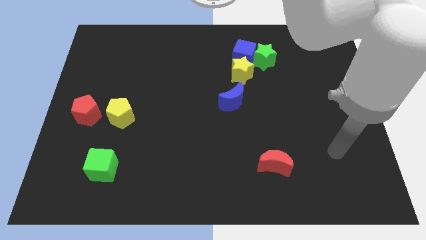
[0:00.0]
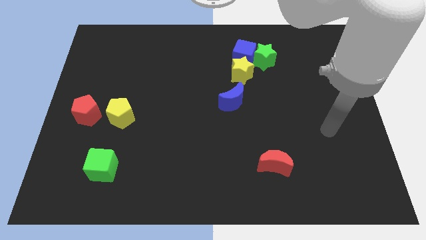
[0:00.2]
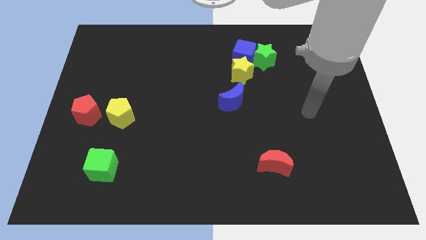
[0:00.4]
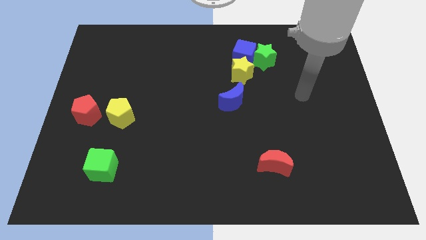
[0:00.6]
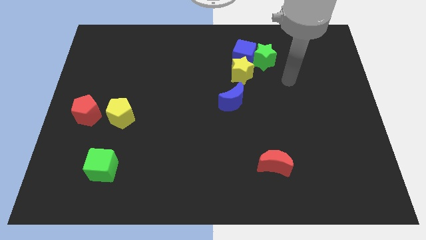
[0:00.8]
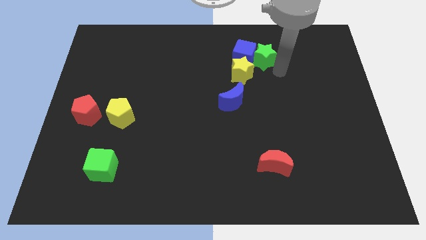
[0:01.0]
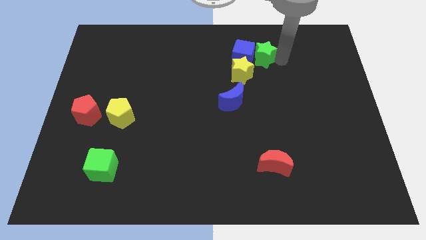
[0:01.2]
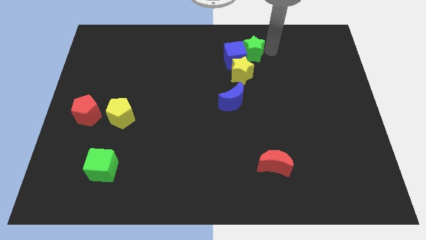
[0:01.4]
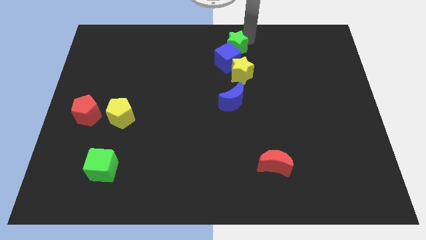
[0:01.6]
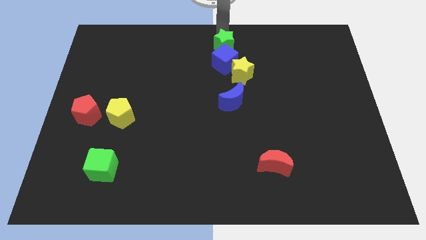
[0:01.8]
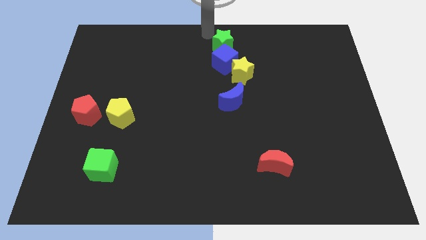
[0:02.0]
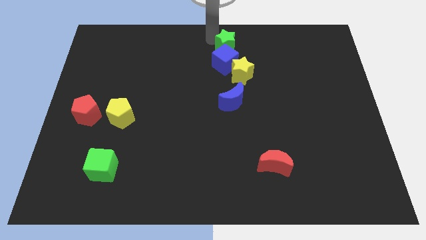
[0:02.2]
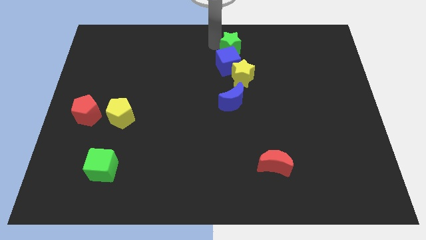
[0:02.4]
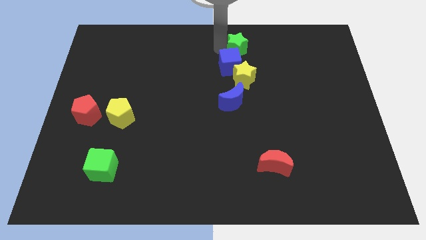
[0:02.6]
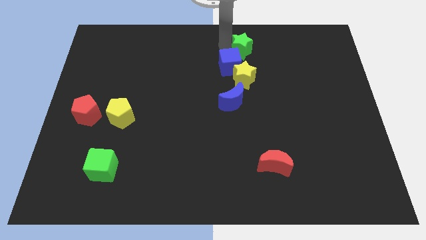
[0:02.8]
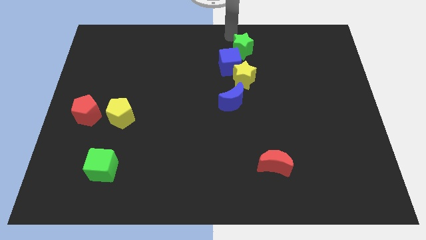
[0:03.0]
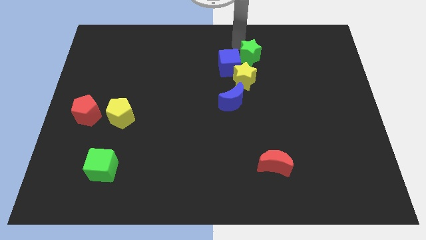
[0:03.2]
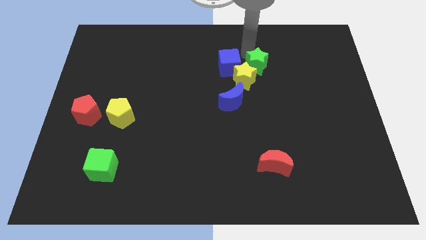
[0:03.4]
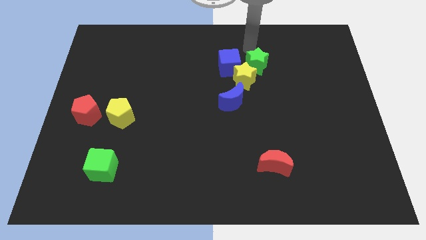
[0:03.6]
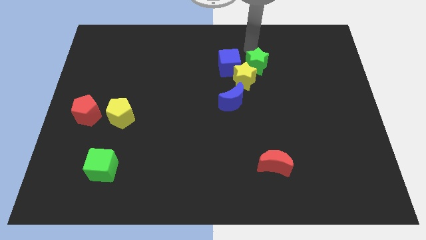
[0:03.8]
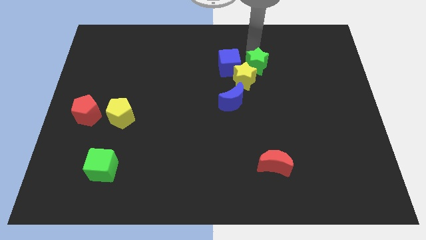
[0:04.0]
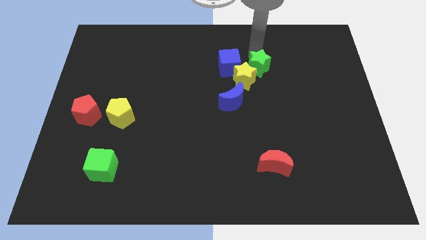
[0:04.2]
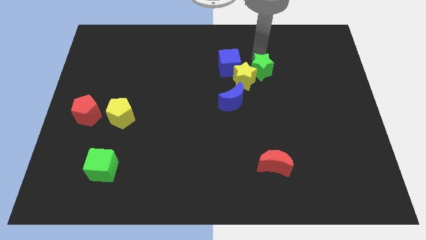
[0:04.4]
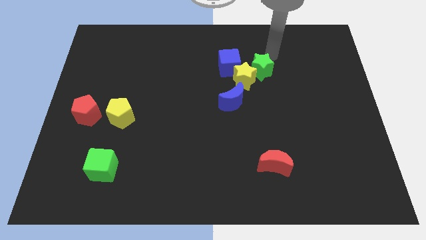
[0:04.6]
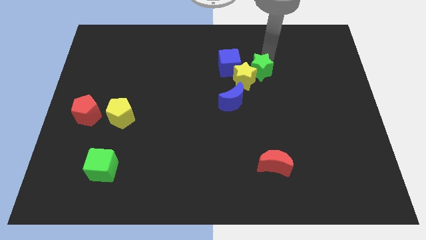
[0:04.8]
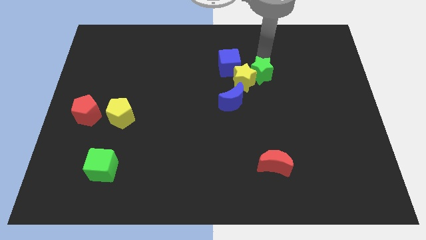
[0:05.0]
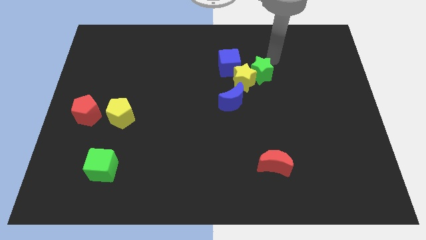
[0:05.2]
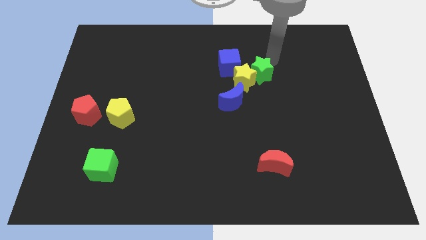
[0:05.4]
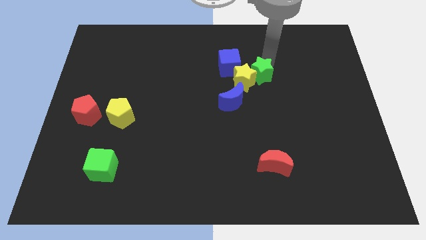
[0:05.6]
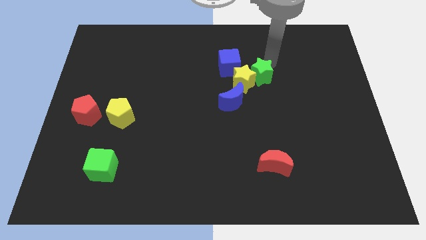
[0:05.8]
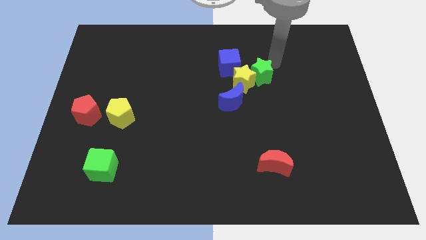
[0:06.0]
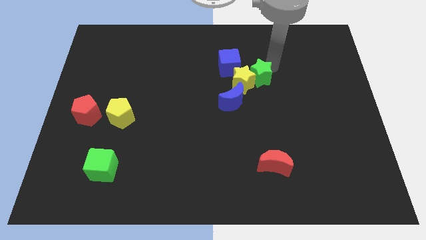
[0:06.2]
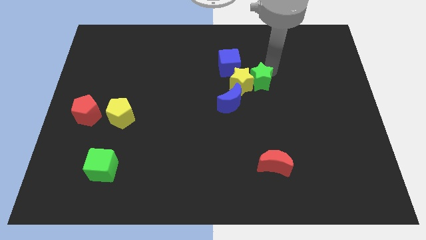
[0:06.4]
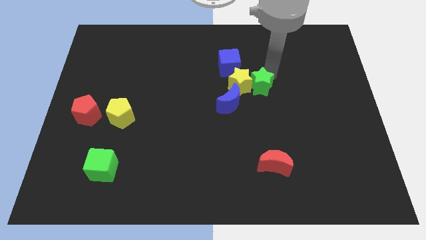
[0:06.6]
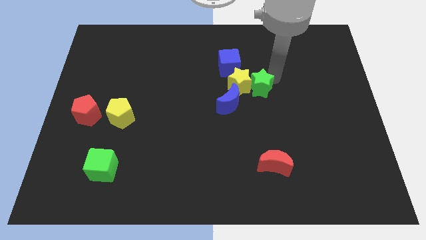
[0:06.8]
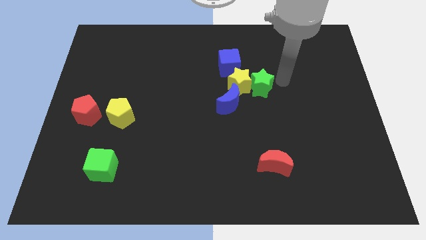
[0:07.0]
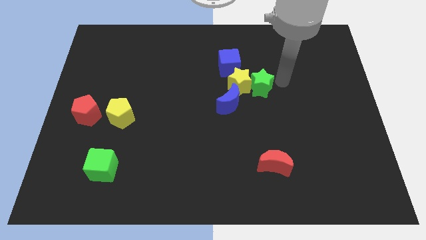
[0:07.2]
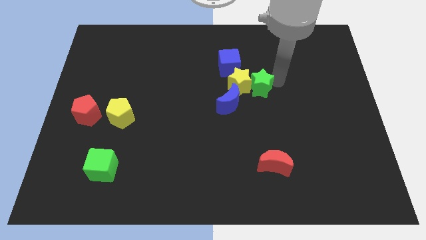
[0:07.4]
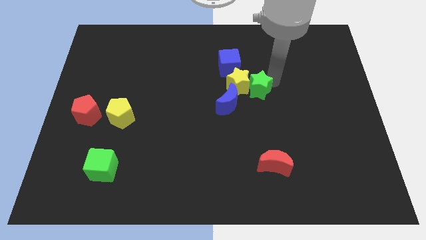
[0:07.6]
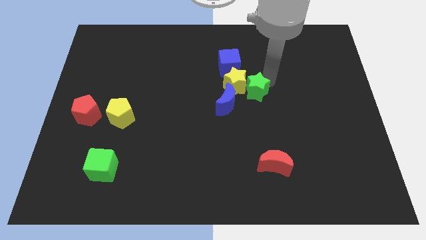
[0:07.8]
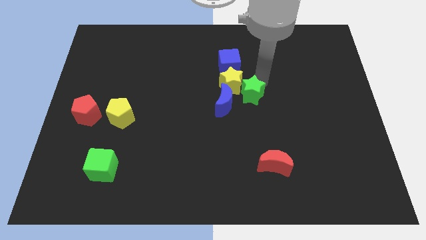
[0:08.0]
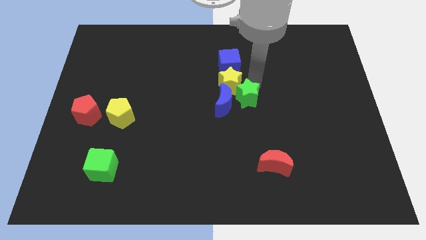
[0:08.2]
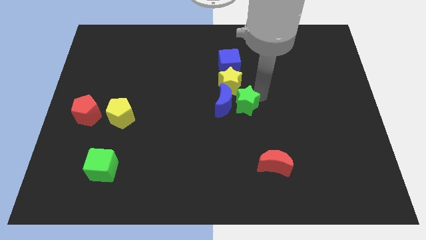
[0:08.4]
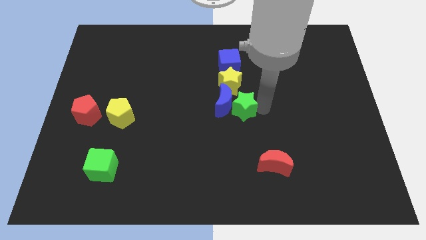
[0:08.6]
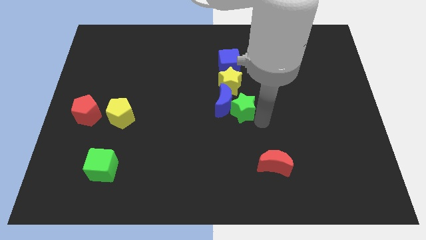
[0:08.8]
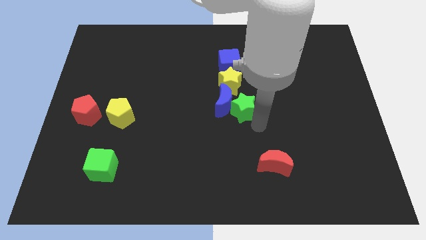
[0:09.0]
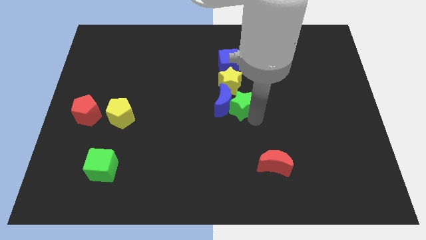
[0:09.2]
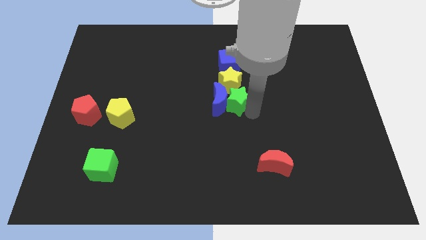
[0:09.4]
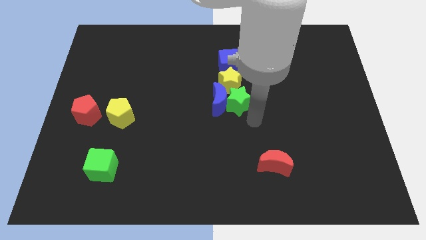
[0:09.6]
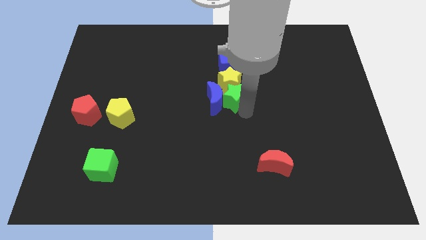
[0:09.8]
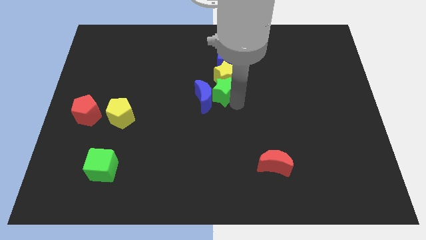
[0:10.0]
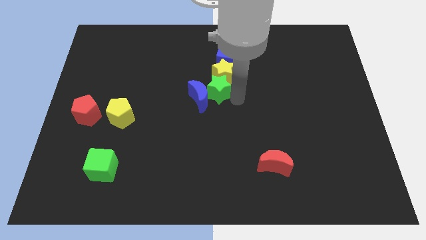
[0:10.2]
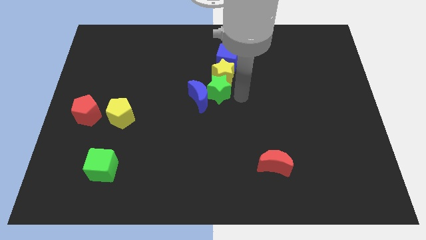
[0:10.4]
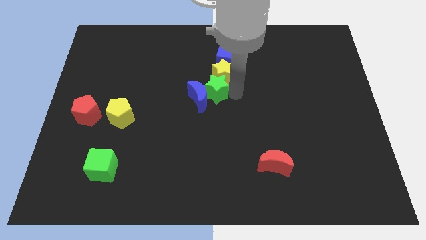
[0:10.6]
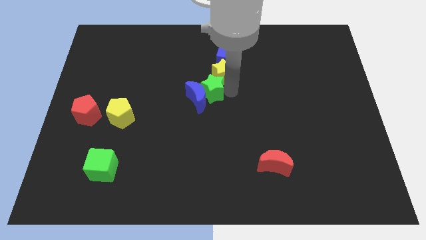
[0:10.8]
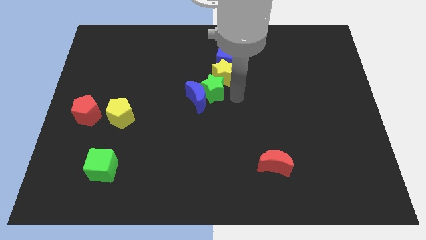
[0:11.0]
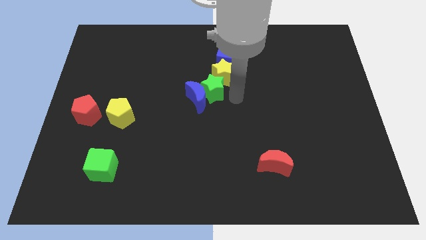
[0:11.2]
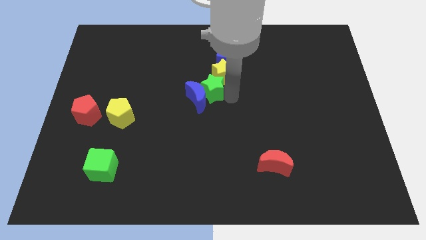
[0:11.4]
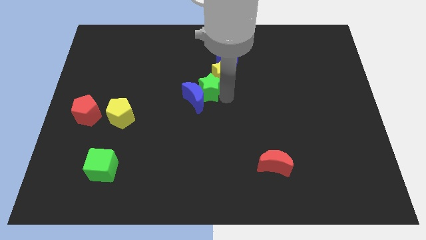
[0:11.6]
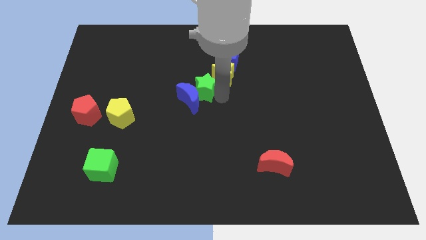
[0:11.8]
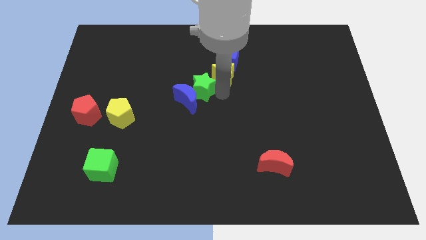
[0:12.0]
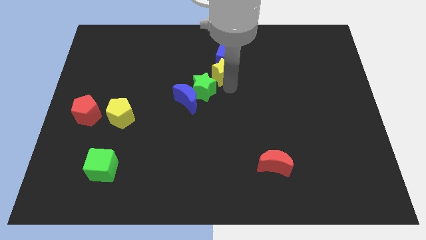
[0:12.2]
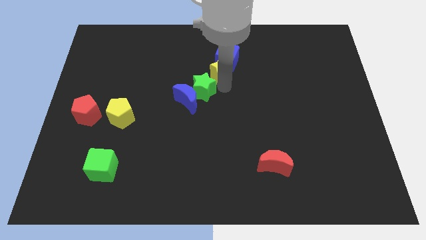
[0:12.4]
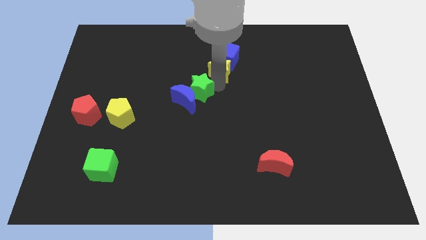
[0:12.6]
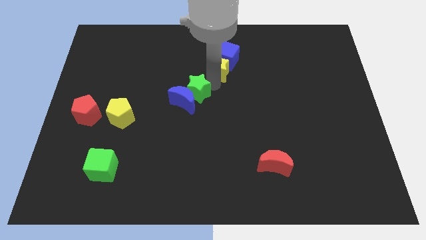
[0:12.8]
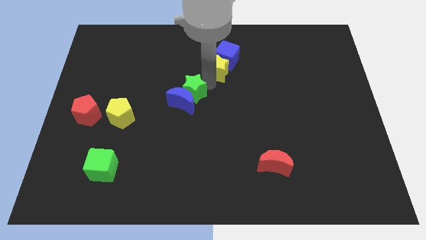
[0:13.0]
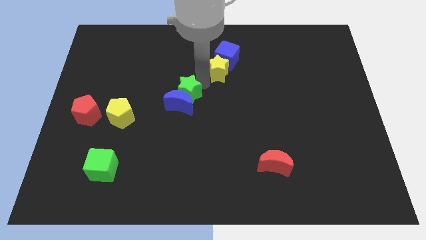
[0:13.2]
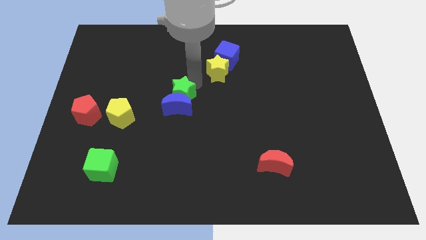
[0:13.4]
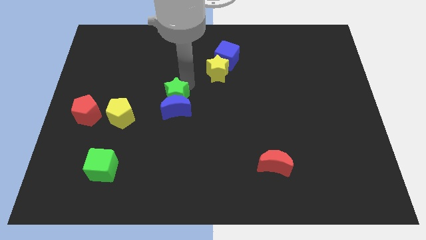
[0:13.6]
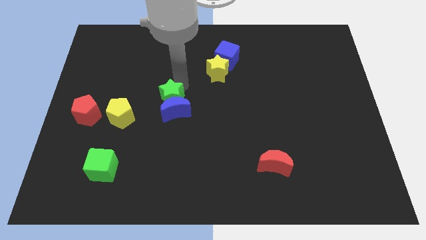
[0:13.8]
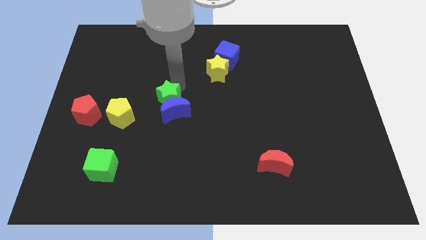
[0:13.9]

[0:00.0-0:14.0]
move the green star diagonally up and to the right of the yellow pentagon

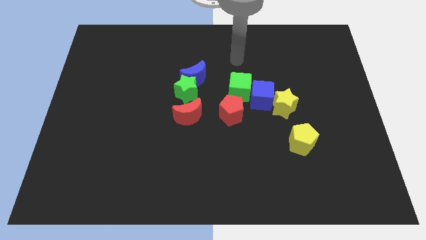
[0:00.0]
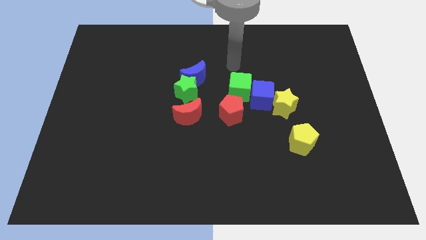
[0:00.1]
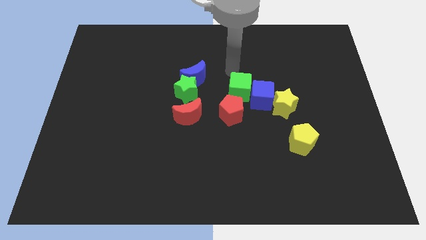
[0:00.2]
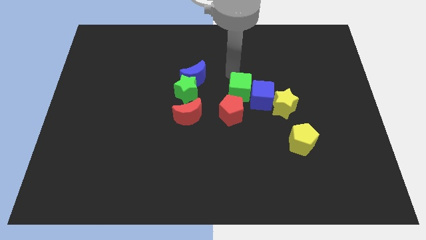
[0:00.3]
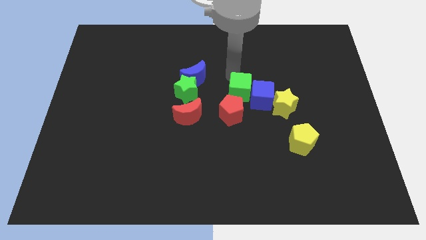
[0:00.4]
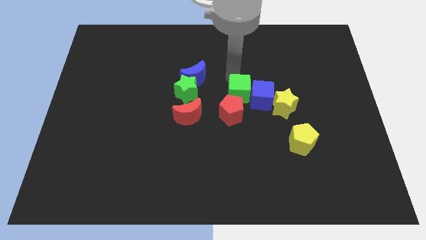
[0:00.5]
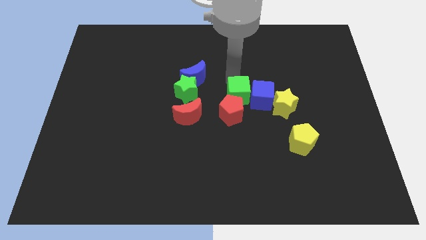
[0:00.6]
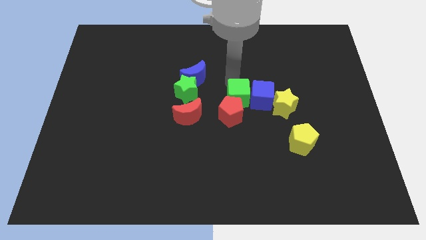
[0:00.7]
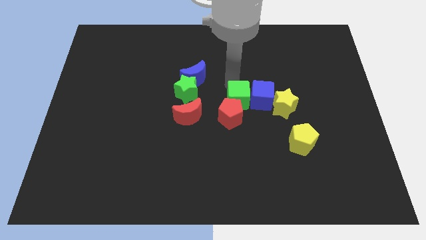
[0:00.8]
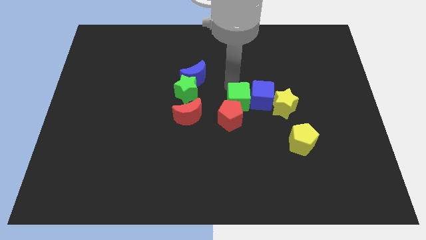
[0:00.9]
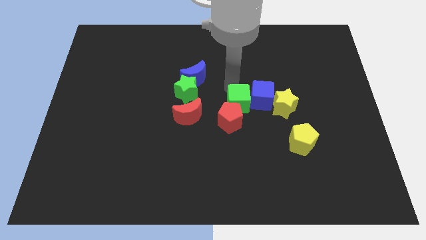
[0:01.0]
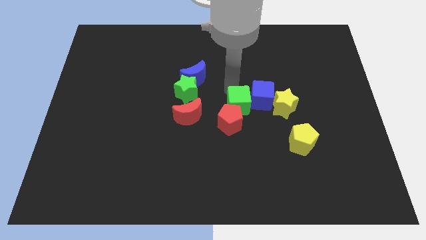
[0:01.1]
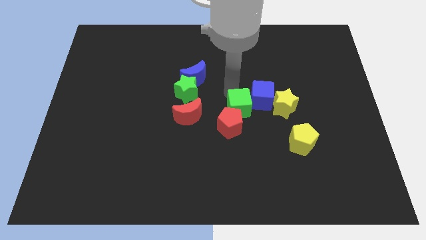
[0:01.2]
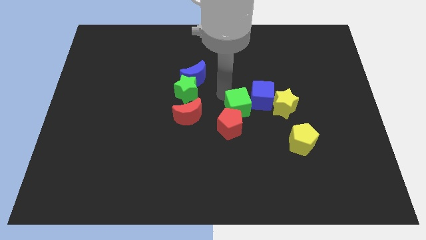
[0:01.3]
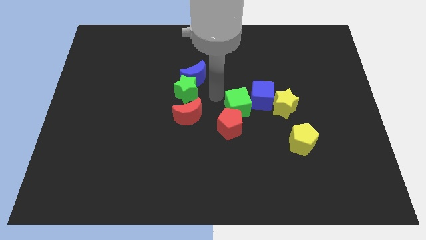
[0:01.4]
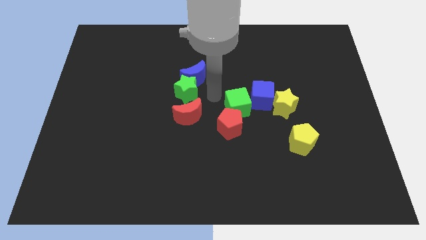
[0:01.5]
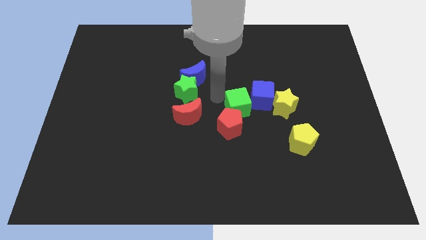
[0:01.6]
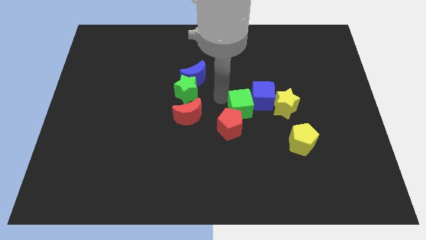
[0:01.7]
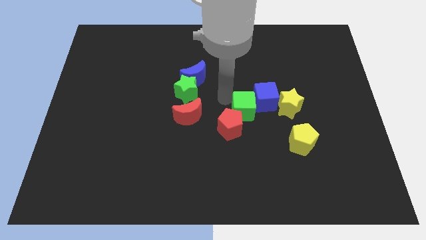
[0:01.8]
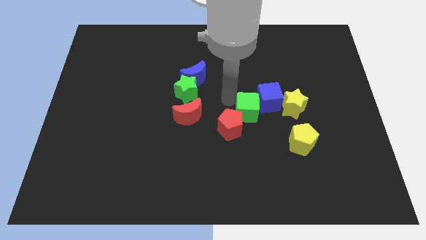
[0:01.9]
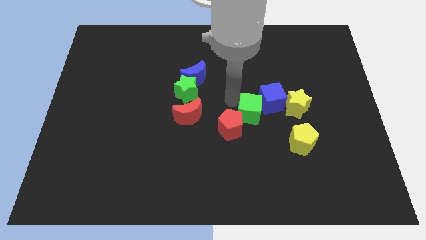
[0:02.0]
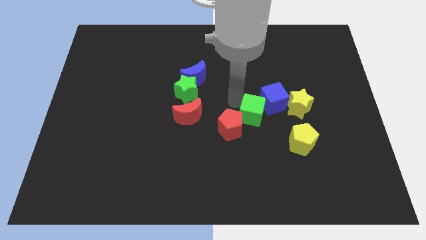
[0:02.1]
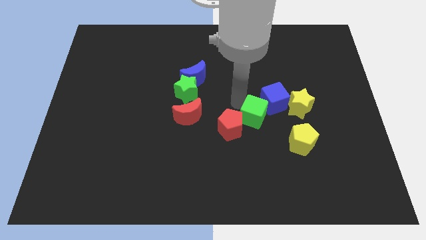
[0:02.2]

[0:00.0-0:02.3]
slide the green cube diagonally up and to the left of the yellow pentagon
